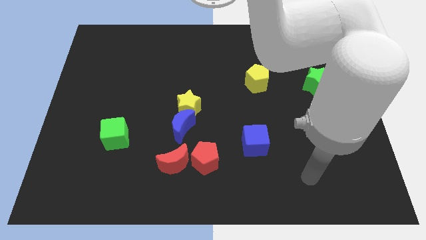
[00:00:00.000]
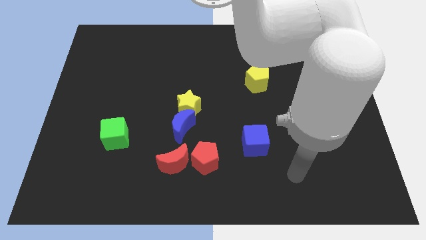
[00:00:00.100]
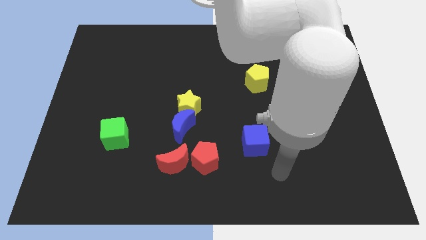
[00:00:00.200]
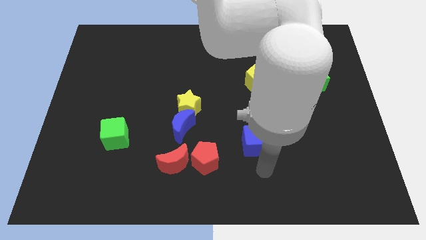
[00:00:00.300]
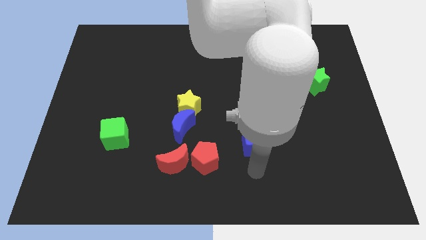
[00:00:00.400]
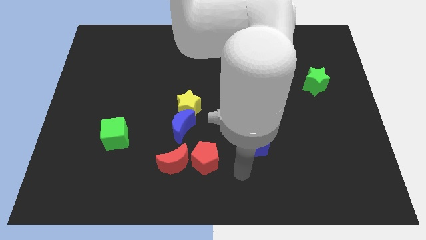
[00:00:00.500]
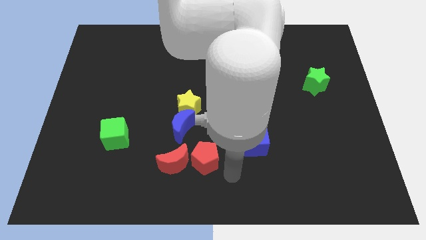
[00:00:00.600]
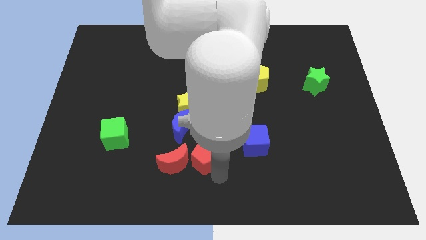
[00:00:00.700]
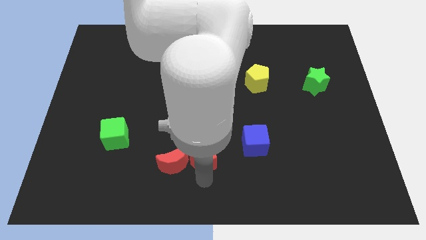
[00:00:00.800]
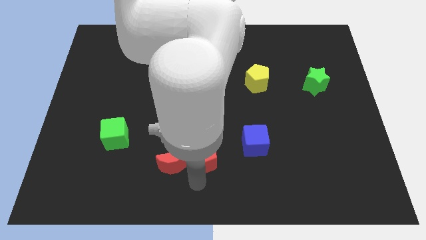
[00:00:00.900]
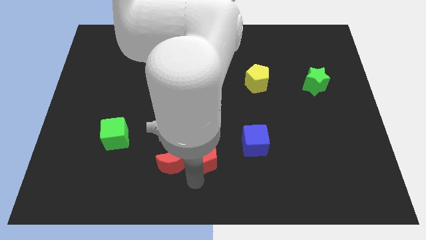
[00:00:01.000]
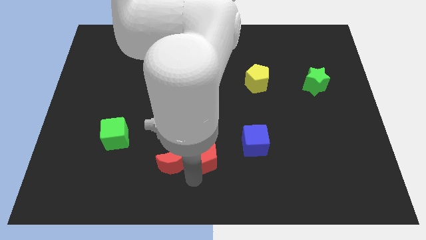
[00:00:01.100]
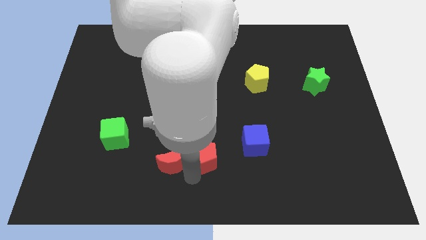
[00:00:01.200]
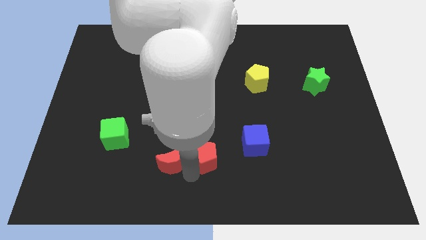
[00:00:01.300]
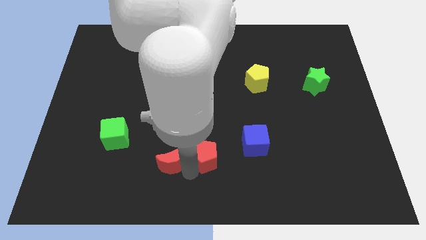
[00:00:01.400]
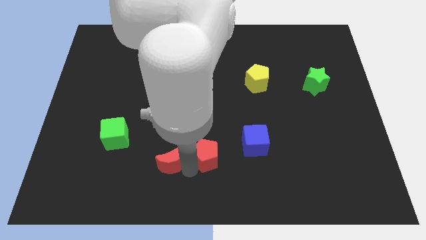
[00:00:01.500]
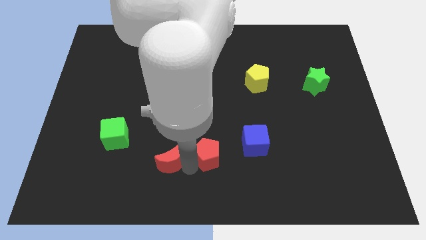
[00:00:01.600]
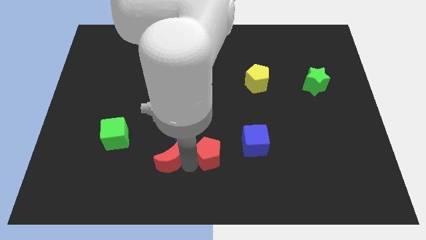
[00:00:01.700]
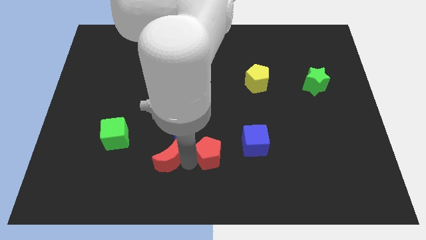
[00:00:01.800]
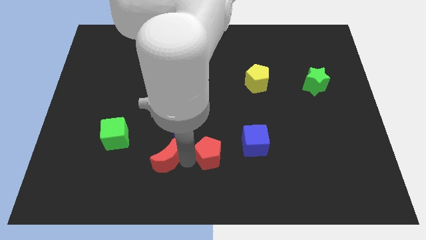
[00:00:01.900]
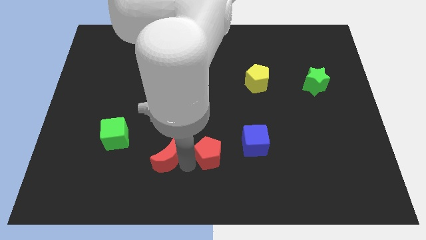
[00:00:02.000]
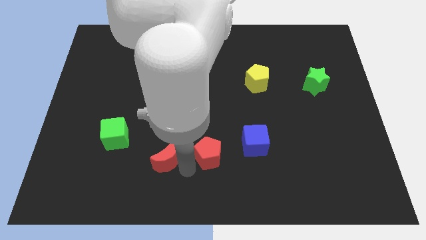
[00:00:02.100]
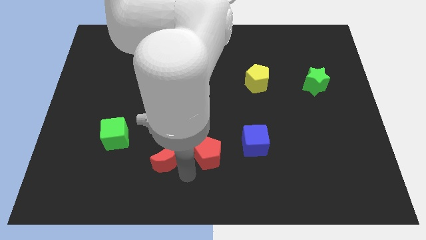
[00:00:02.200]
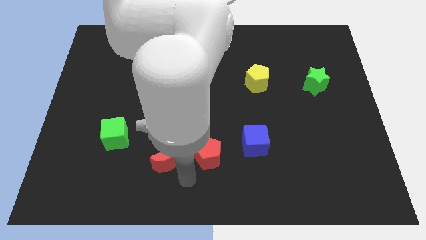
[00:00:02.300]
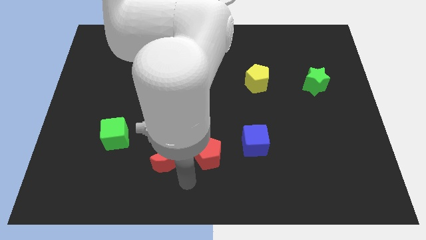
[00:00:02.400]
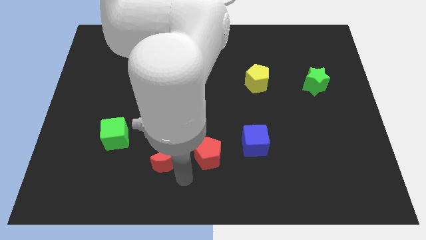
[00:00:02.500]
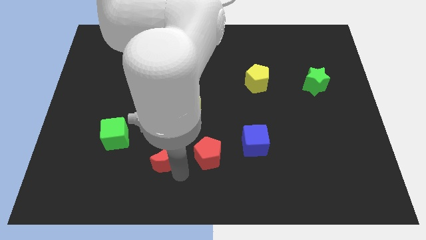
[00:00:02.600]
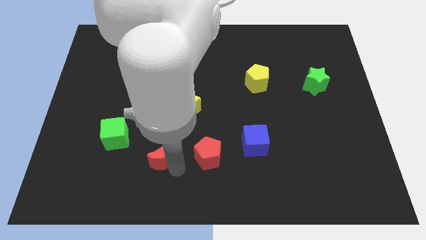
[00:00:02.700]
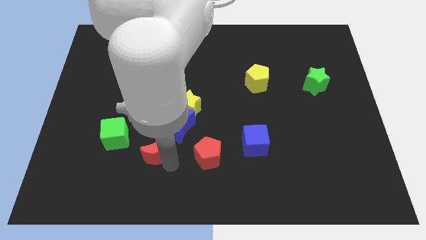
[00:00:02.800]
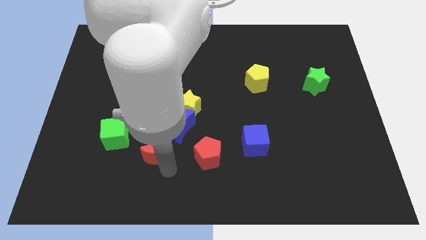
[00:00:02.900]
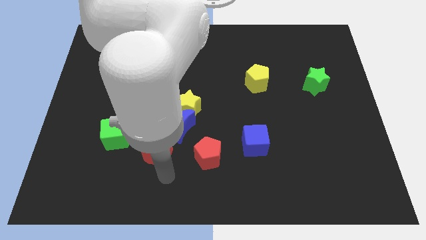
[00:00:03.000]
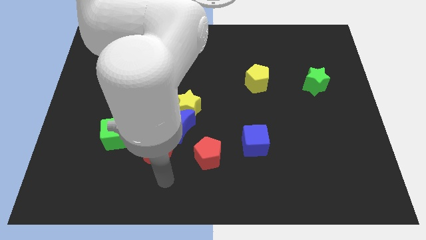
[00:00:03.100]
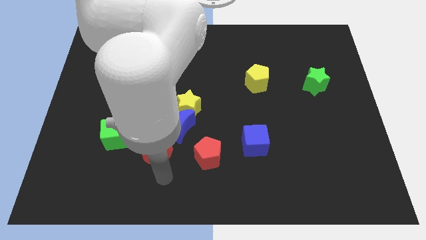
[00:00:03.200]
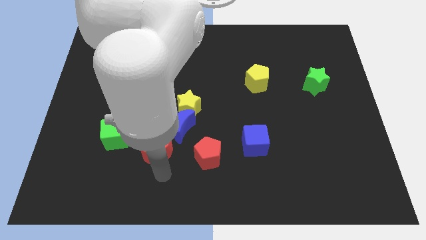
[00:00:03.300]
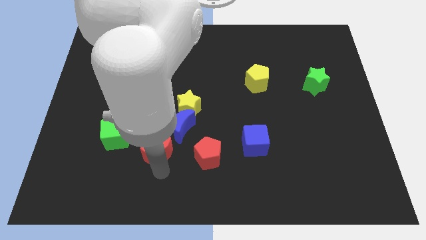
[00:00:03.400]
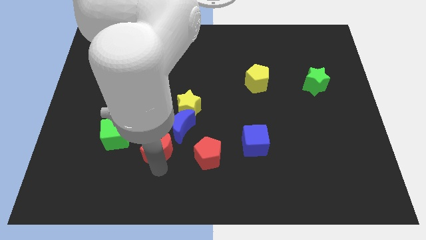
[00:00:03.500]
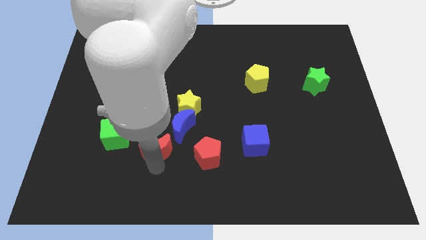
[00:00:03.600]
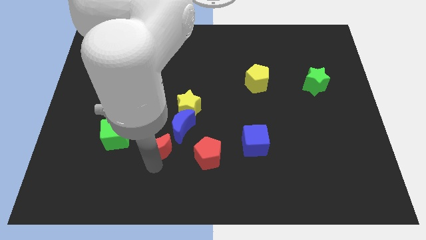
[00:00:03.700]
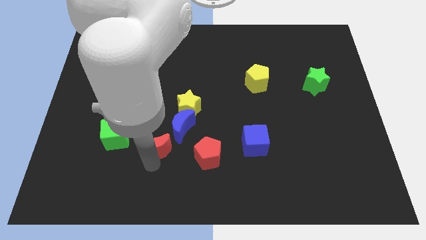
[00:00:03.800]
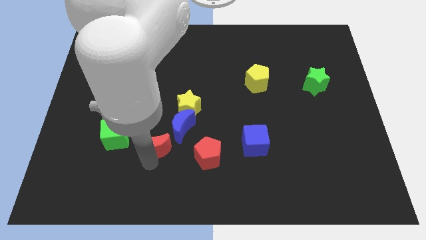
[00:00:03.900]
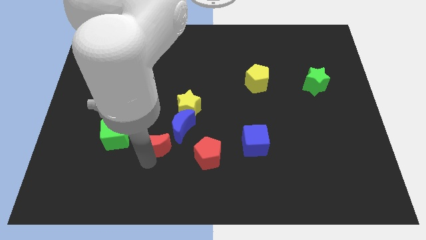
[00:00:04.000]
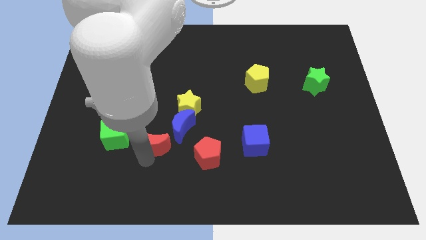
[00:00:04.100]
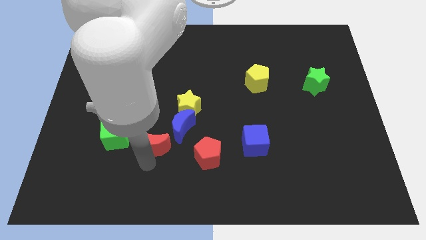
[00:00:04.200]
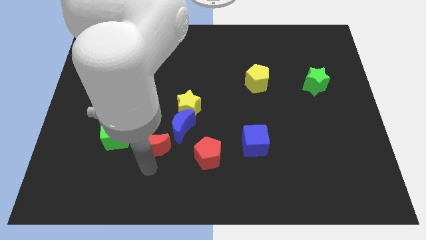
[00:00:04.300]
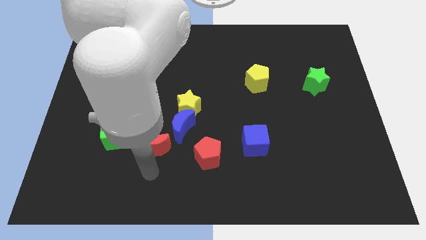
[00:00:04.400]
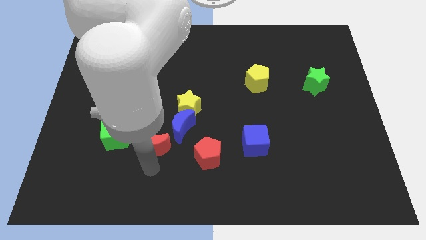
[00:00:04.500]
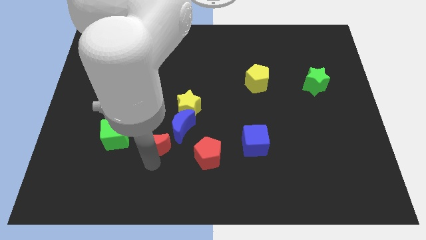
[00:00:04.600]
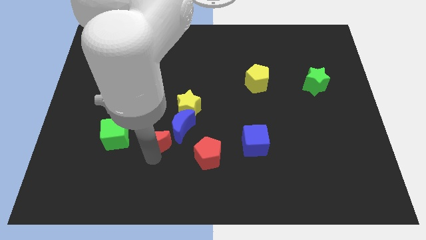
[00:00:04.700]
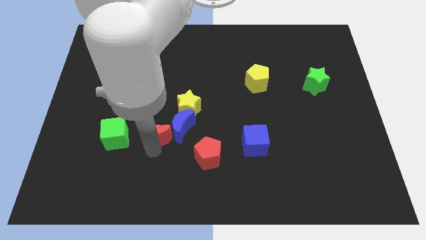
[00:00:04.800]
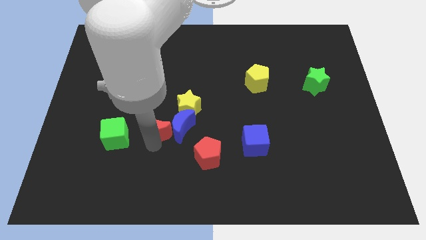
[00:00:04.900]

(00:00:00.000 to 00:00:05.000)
slide the red moon a little up

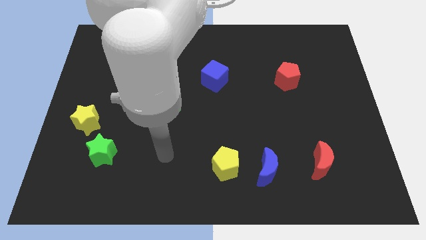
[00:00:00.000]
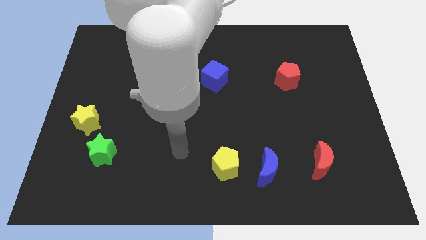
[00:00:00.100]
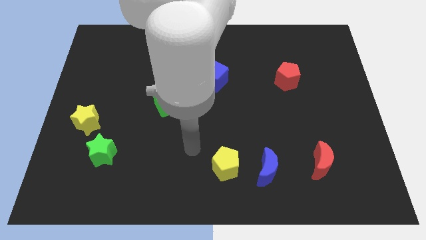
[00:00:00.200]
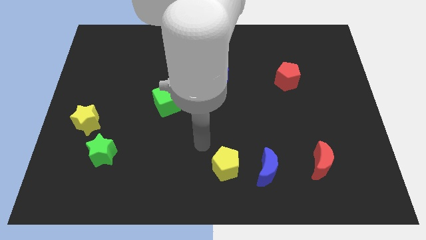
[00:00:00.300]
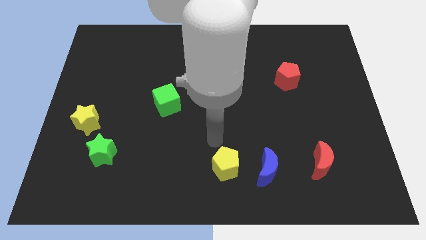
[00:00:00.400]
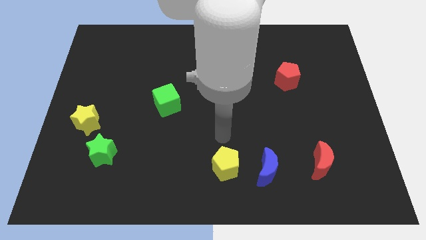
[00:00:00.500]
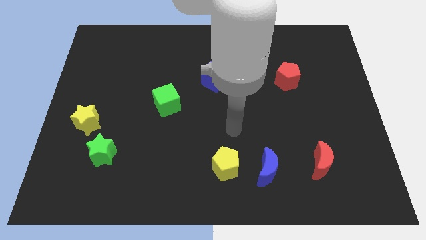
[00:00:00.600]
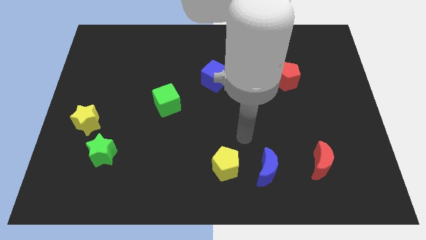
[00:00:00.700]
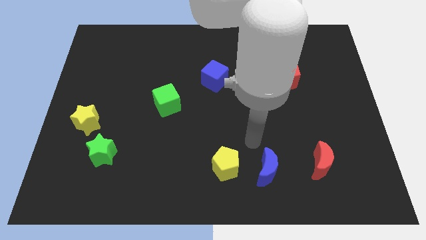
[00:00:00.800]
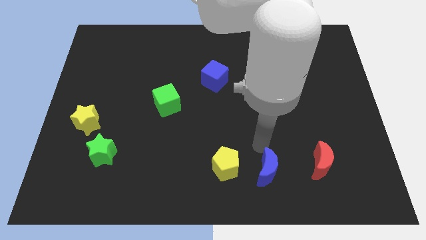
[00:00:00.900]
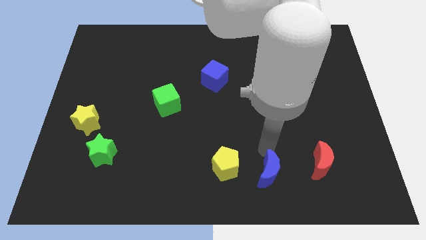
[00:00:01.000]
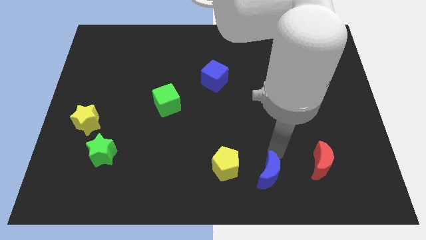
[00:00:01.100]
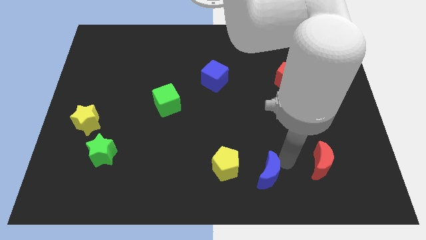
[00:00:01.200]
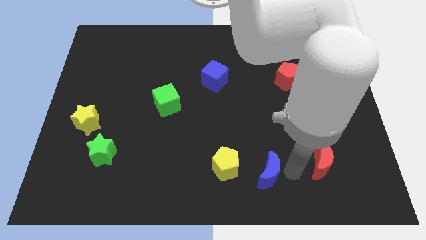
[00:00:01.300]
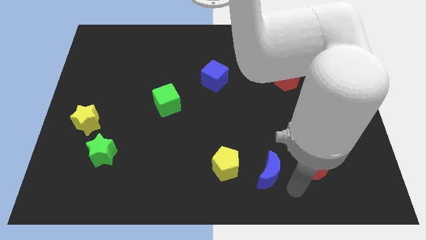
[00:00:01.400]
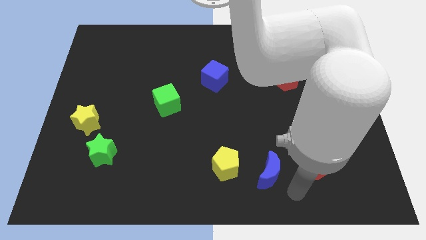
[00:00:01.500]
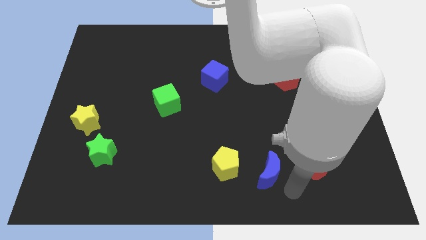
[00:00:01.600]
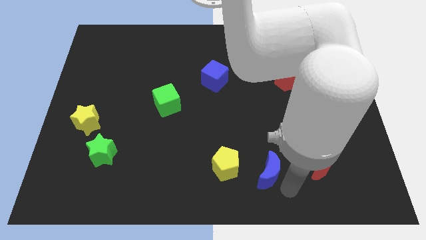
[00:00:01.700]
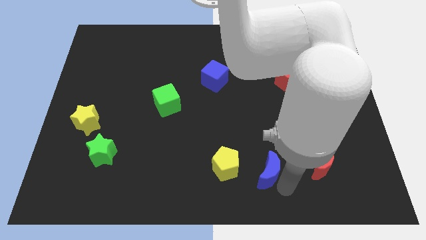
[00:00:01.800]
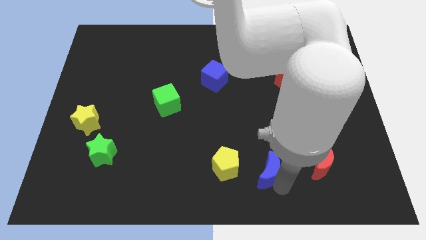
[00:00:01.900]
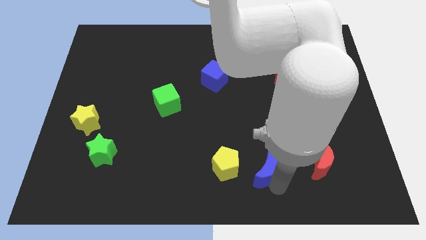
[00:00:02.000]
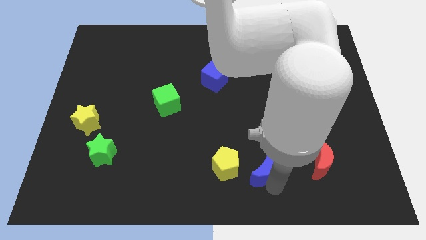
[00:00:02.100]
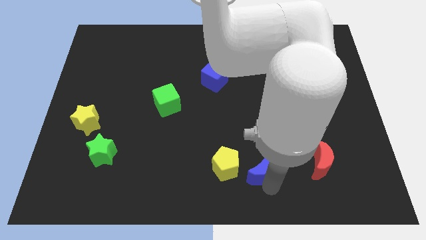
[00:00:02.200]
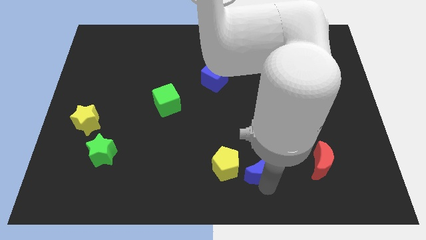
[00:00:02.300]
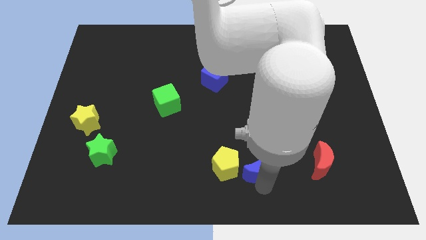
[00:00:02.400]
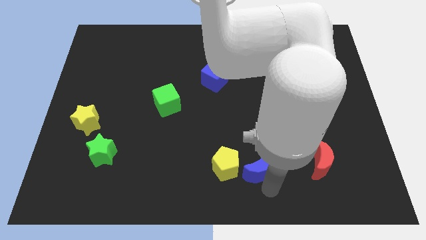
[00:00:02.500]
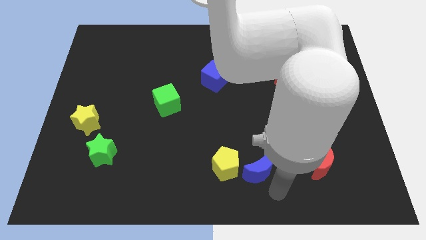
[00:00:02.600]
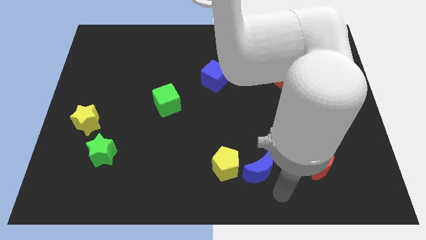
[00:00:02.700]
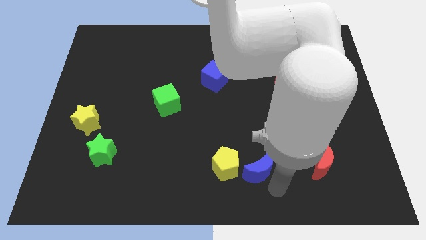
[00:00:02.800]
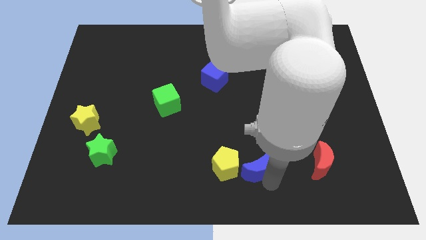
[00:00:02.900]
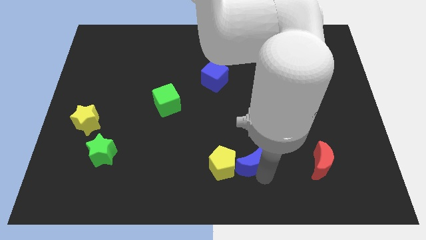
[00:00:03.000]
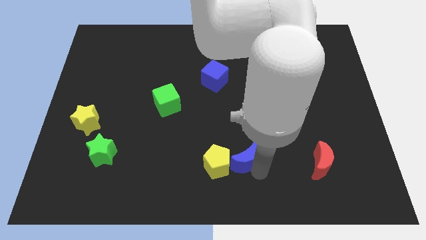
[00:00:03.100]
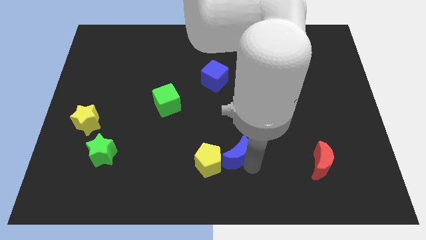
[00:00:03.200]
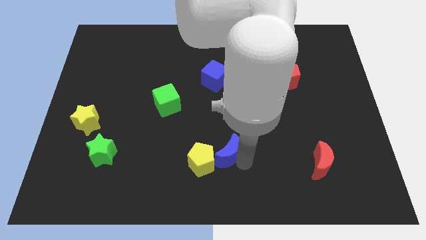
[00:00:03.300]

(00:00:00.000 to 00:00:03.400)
slide the blue moon upwards and left a little
